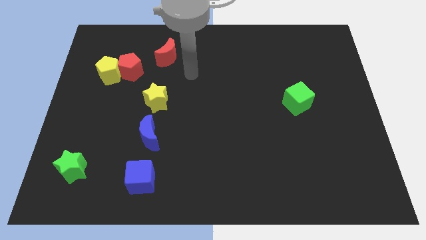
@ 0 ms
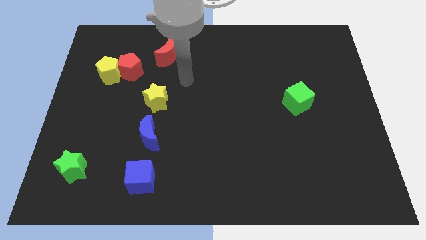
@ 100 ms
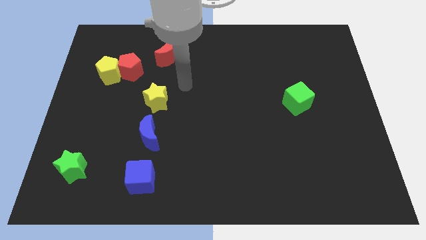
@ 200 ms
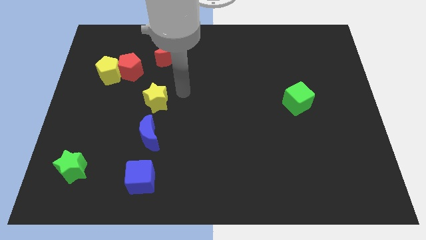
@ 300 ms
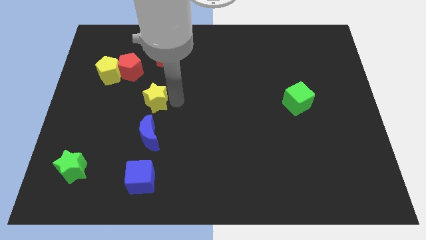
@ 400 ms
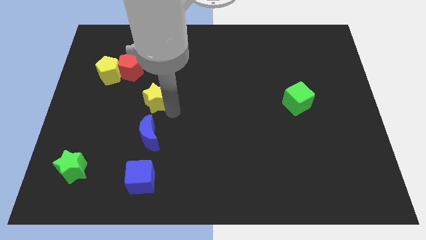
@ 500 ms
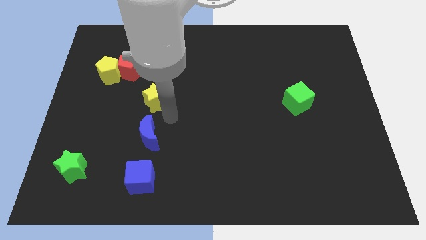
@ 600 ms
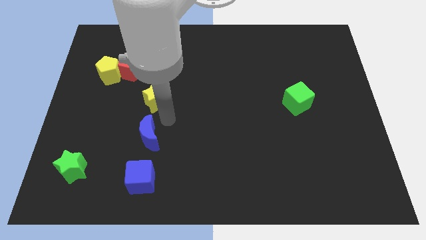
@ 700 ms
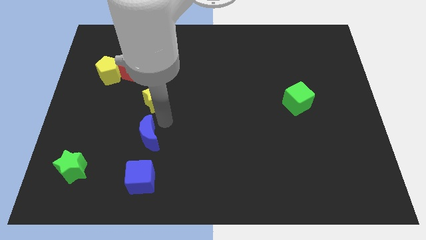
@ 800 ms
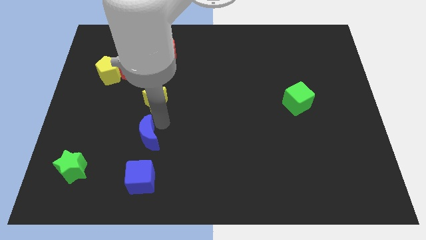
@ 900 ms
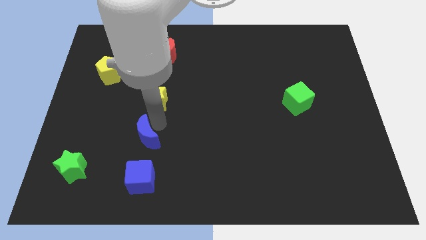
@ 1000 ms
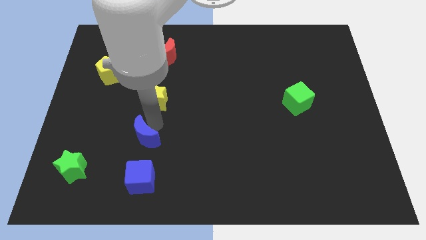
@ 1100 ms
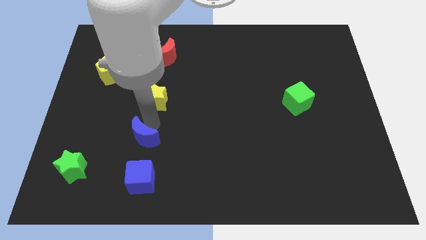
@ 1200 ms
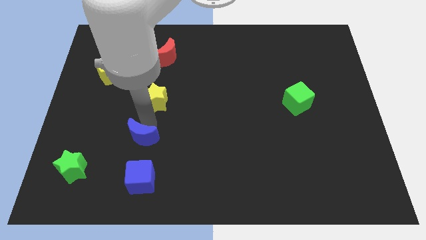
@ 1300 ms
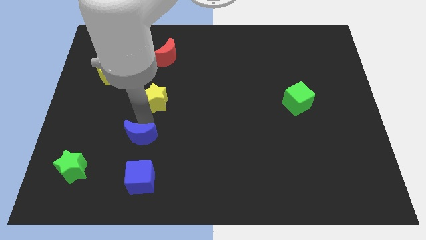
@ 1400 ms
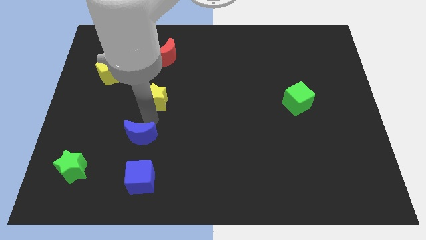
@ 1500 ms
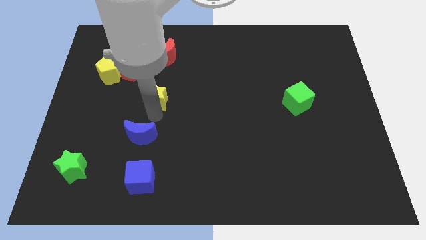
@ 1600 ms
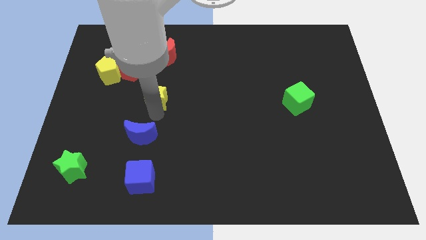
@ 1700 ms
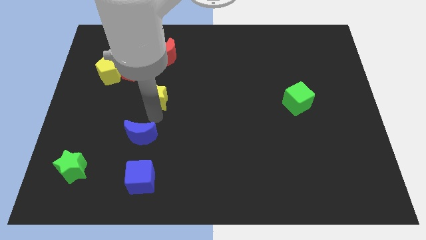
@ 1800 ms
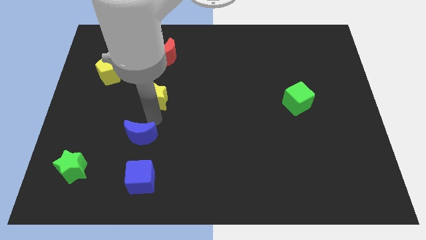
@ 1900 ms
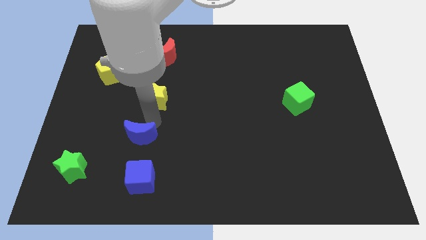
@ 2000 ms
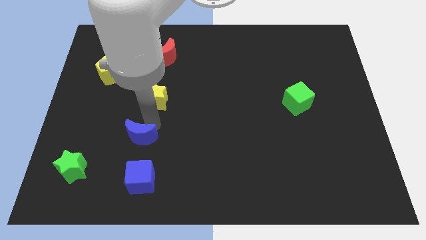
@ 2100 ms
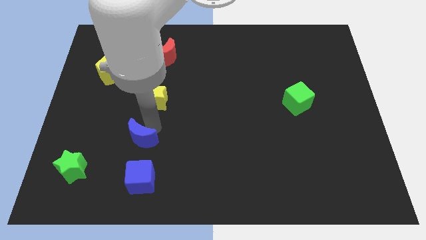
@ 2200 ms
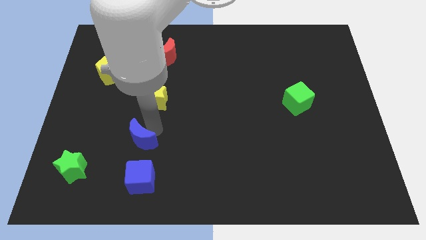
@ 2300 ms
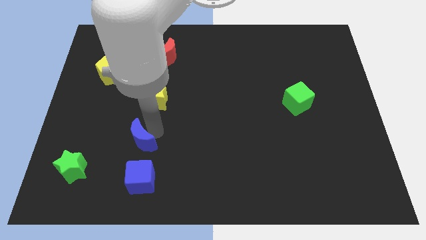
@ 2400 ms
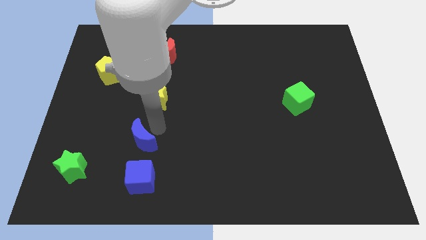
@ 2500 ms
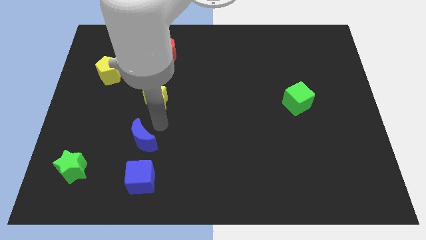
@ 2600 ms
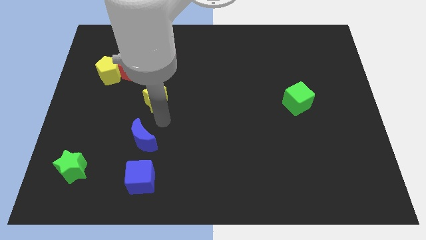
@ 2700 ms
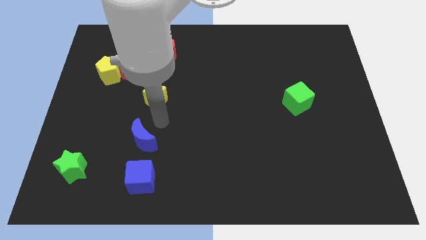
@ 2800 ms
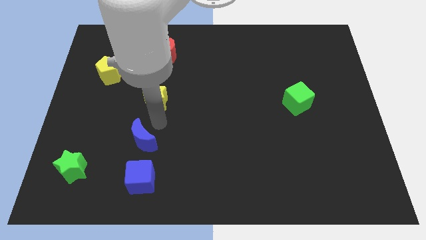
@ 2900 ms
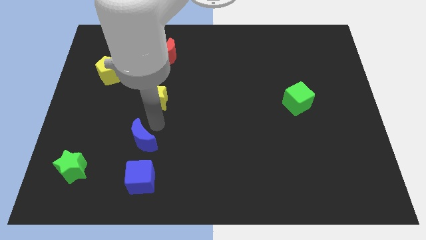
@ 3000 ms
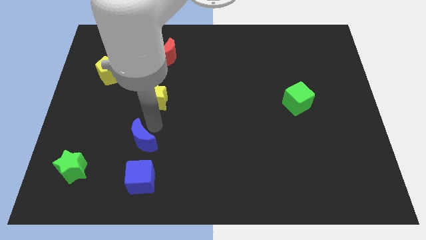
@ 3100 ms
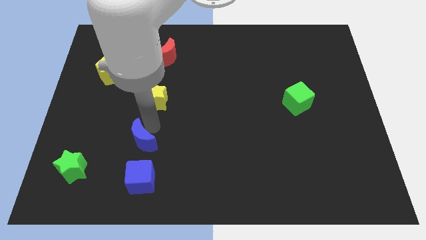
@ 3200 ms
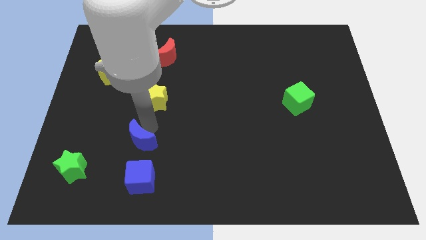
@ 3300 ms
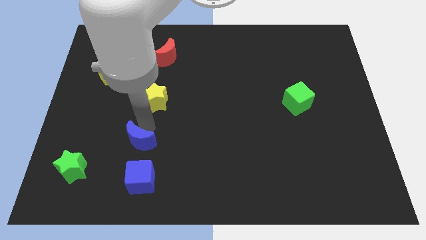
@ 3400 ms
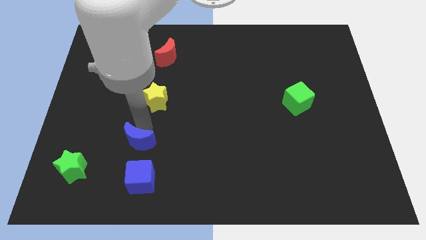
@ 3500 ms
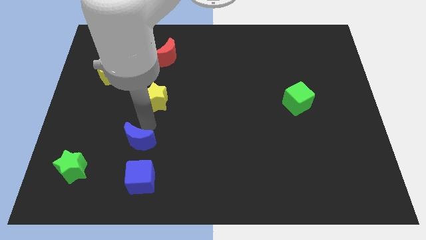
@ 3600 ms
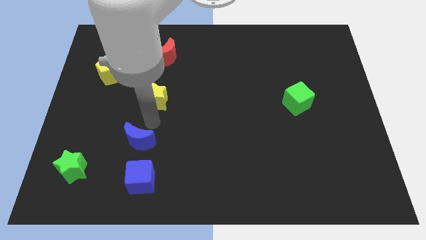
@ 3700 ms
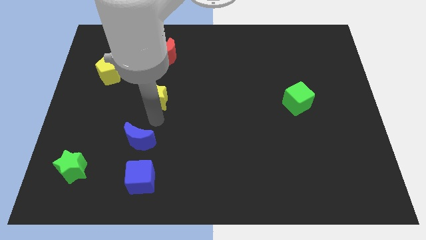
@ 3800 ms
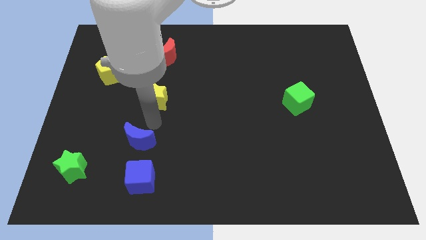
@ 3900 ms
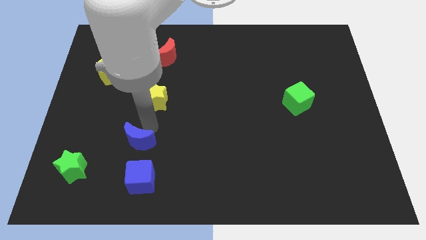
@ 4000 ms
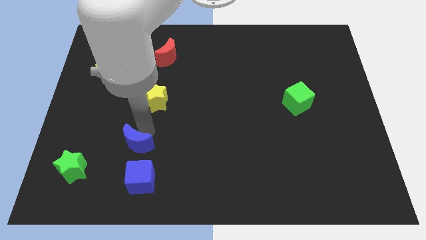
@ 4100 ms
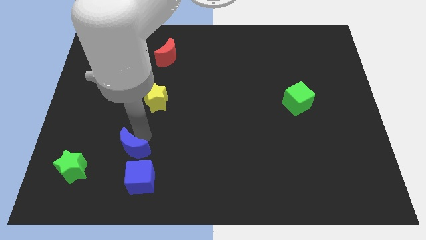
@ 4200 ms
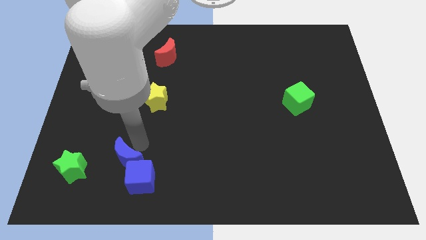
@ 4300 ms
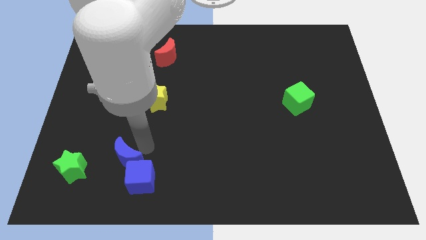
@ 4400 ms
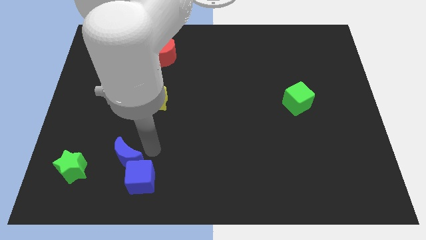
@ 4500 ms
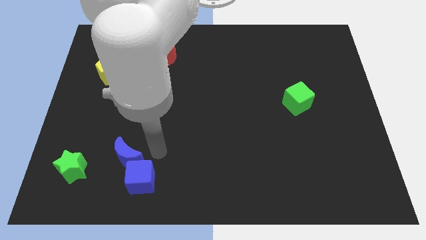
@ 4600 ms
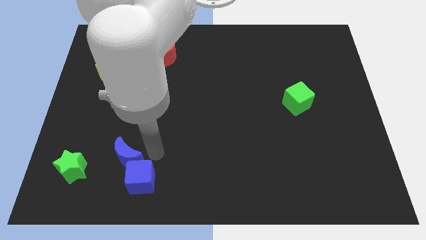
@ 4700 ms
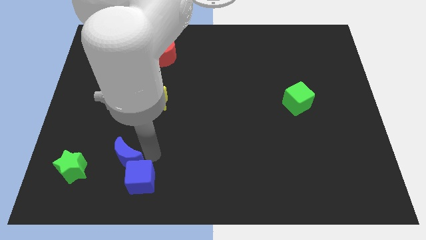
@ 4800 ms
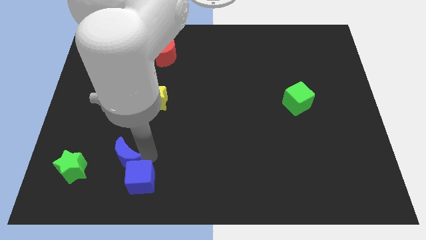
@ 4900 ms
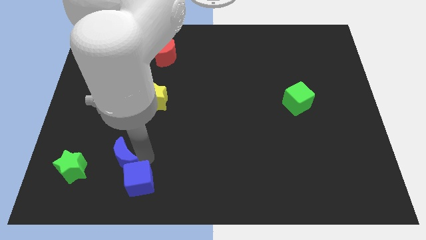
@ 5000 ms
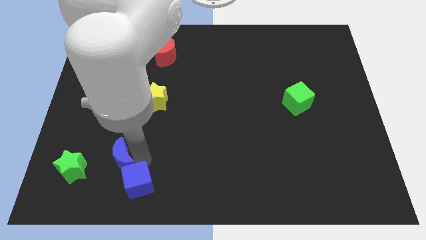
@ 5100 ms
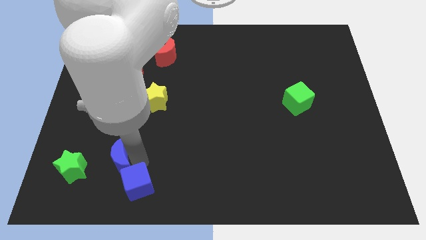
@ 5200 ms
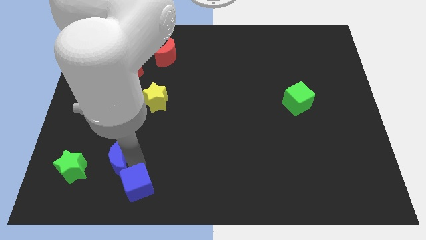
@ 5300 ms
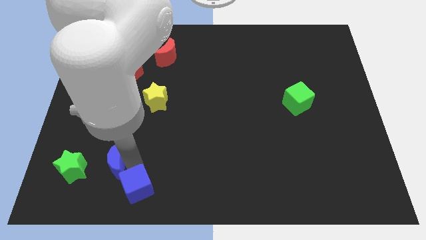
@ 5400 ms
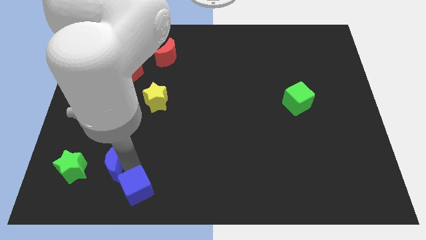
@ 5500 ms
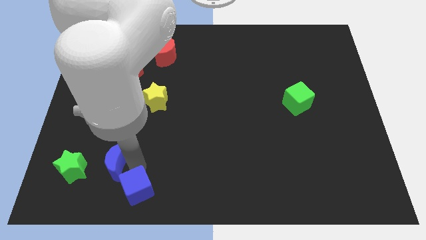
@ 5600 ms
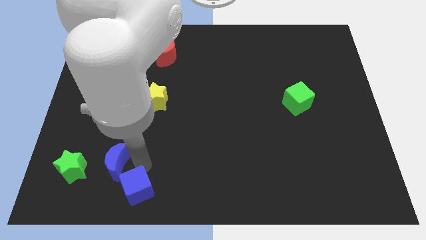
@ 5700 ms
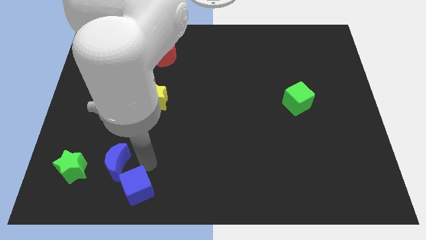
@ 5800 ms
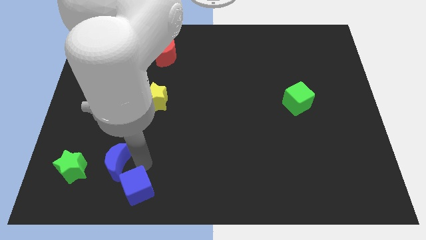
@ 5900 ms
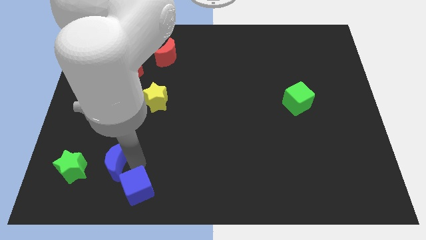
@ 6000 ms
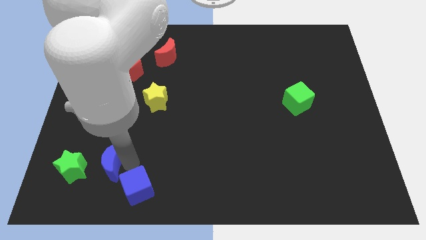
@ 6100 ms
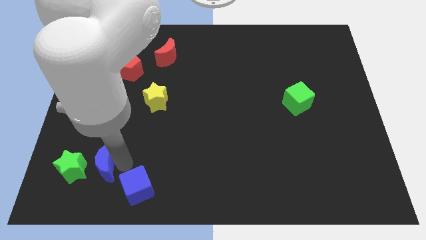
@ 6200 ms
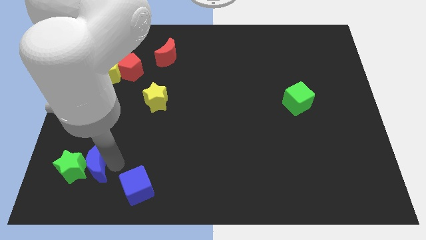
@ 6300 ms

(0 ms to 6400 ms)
move the blue moon next to the green star

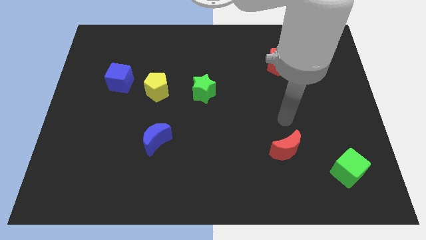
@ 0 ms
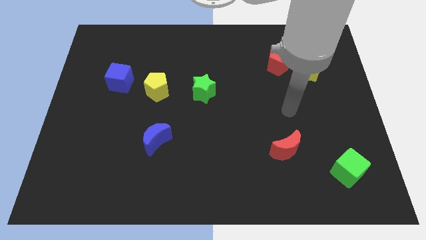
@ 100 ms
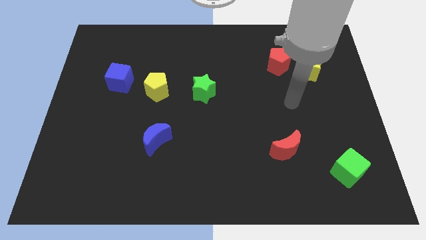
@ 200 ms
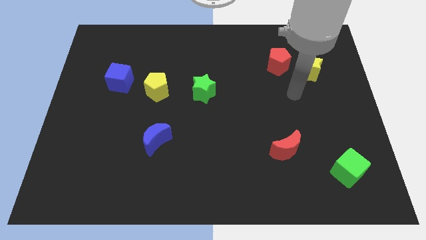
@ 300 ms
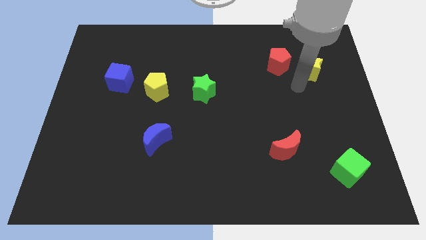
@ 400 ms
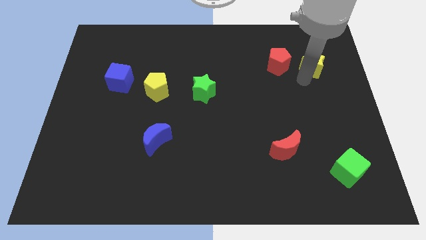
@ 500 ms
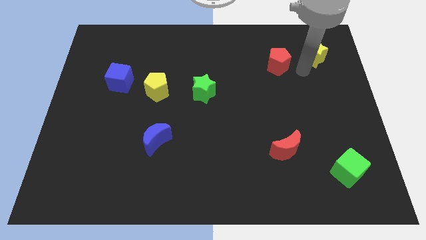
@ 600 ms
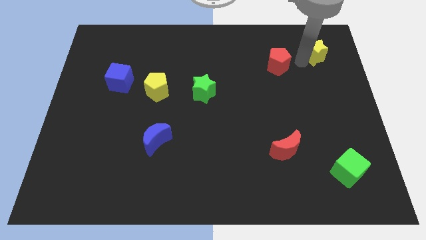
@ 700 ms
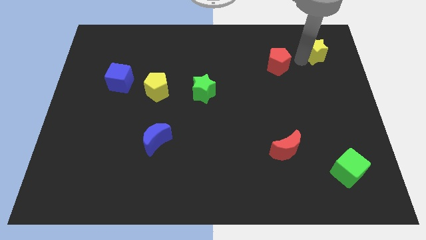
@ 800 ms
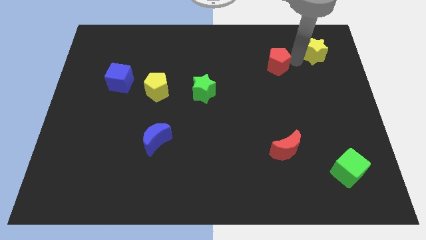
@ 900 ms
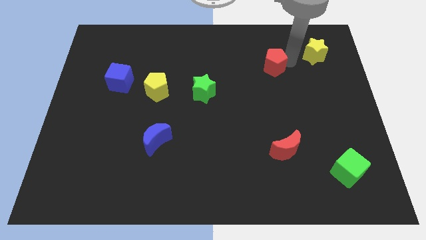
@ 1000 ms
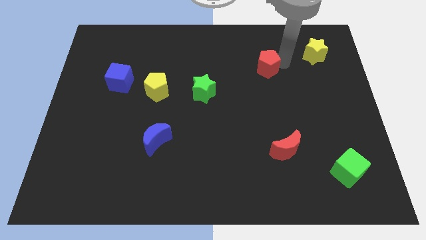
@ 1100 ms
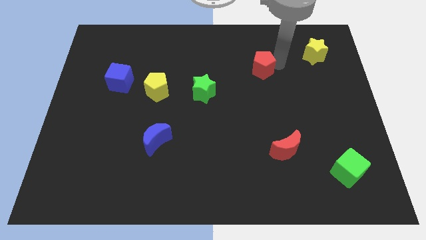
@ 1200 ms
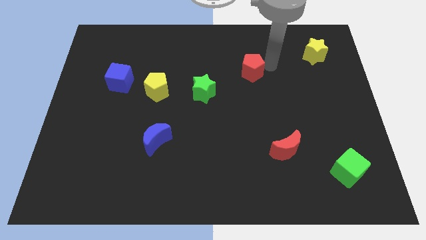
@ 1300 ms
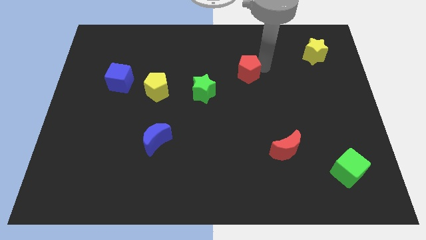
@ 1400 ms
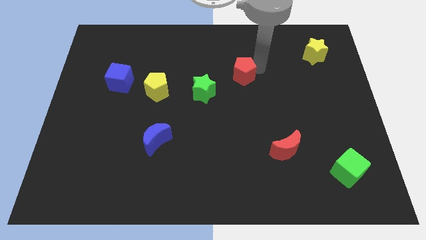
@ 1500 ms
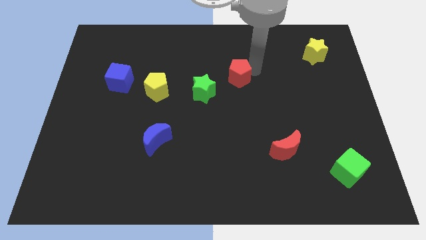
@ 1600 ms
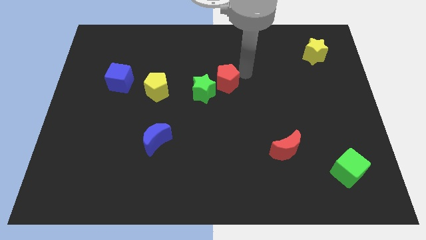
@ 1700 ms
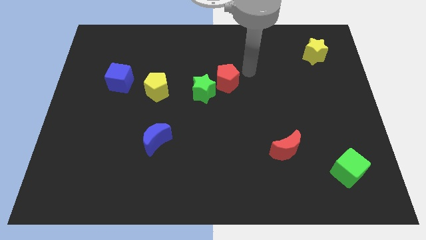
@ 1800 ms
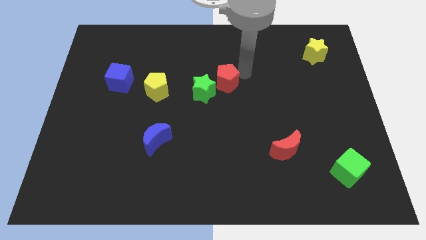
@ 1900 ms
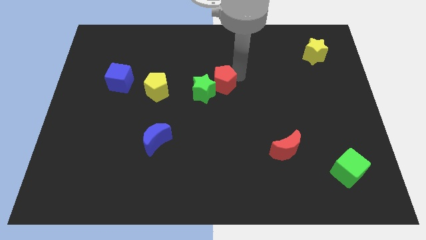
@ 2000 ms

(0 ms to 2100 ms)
push the red pentagon close to the green star
